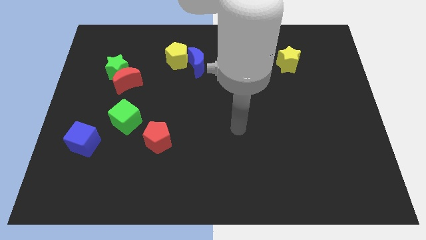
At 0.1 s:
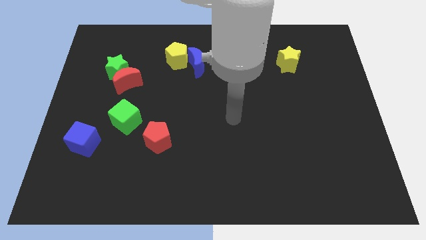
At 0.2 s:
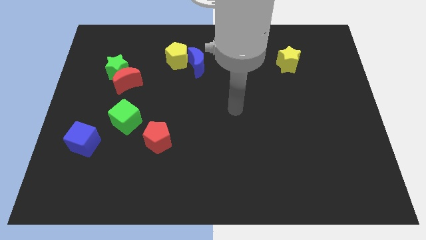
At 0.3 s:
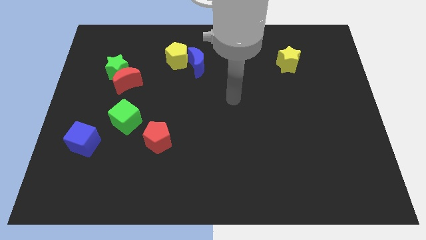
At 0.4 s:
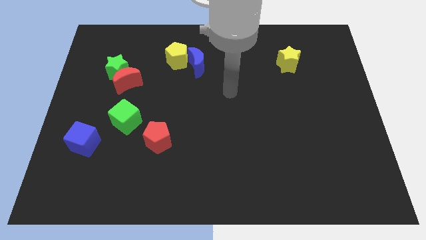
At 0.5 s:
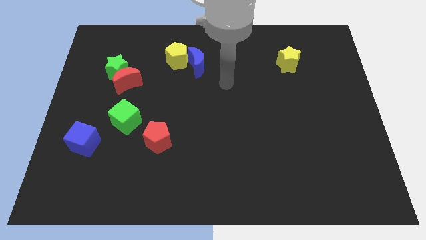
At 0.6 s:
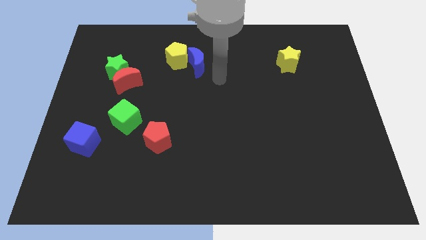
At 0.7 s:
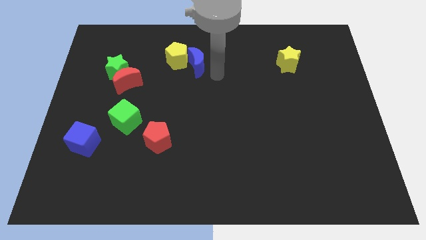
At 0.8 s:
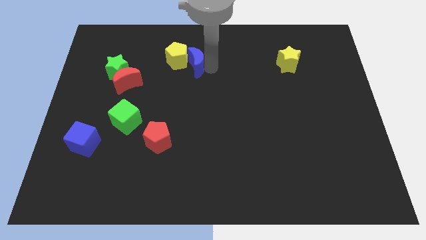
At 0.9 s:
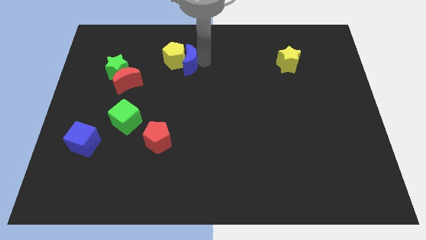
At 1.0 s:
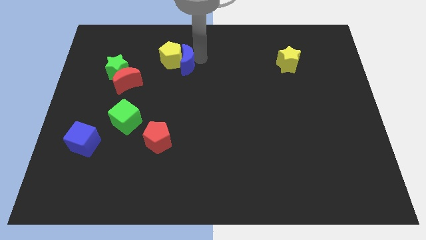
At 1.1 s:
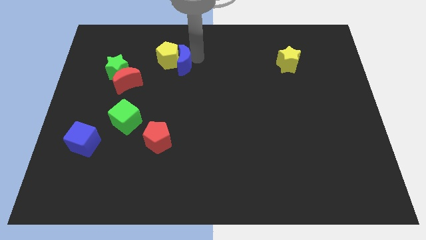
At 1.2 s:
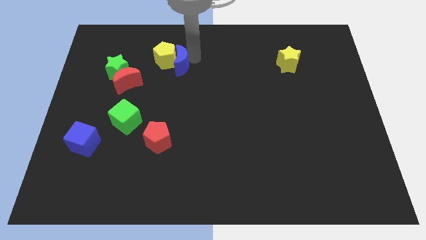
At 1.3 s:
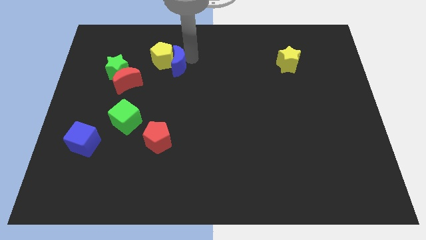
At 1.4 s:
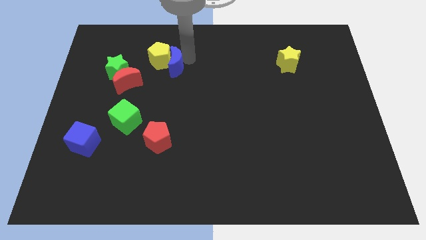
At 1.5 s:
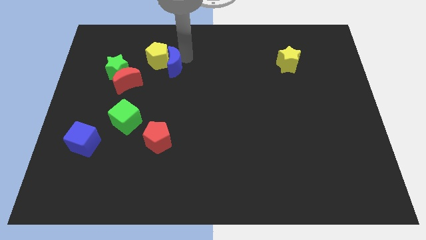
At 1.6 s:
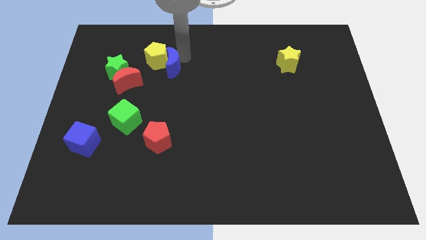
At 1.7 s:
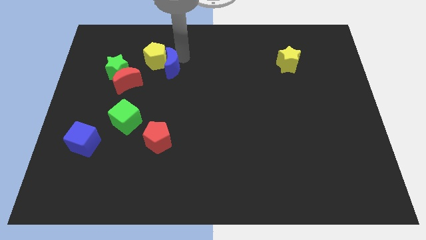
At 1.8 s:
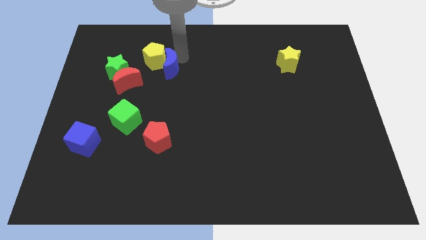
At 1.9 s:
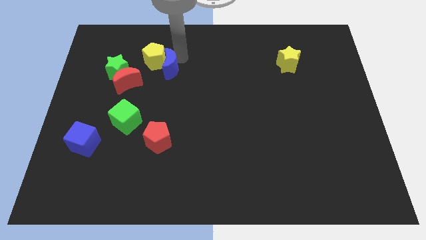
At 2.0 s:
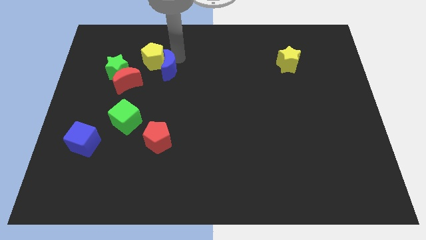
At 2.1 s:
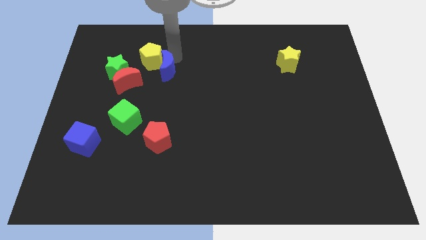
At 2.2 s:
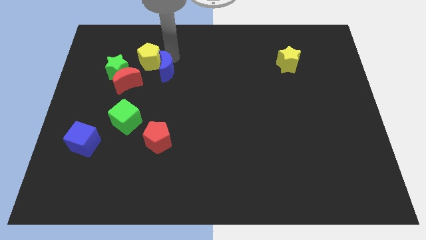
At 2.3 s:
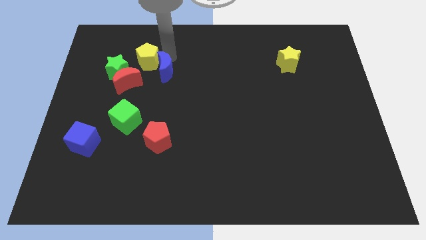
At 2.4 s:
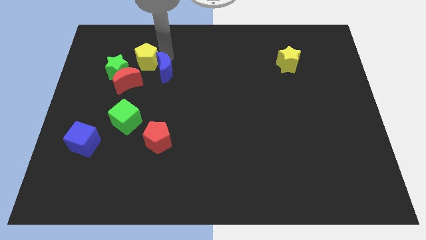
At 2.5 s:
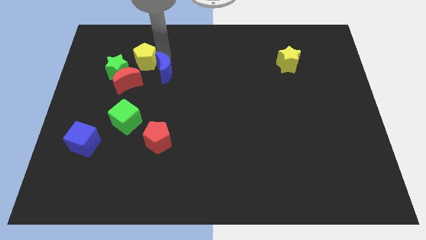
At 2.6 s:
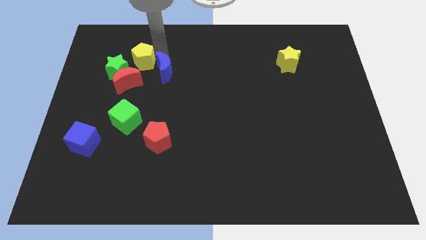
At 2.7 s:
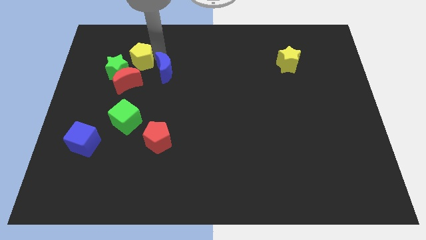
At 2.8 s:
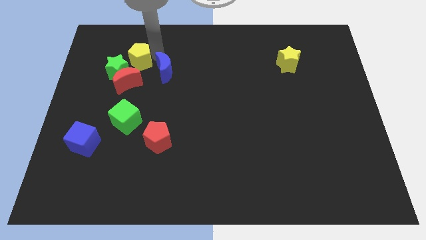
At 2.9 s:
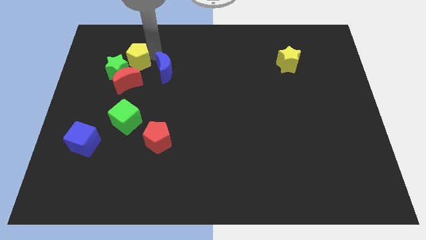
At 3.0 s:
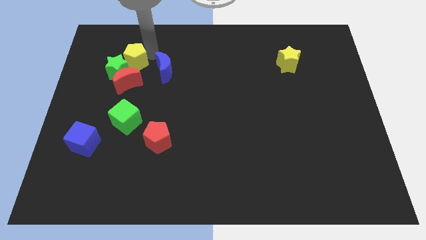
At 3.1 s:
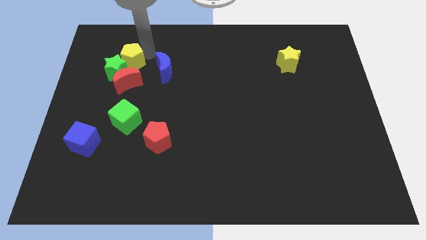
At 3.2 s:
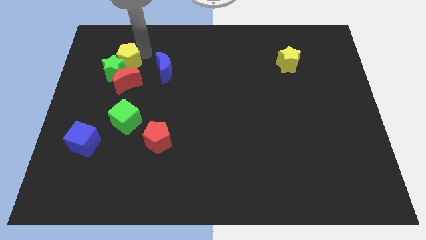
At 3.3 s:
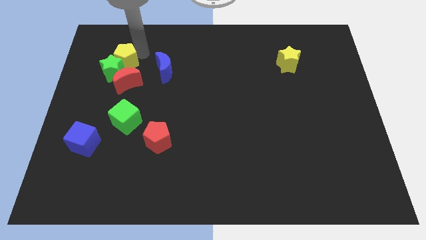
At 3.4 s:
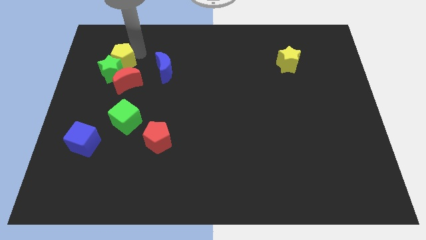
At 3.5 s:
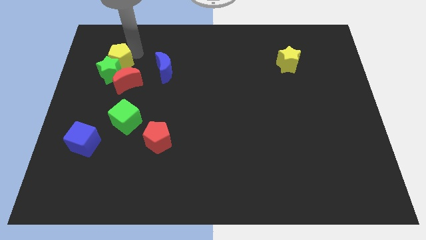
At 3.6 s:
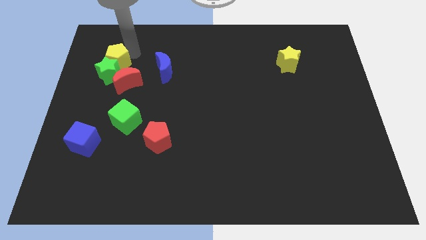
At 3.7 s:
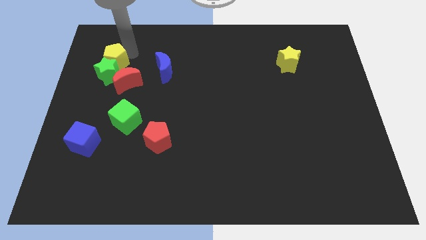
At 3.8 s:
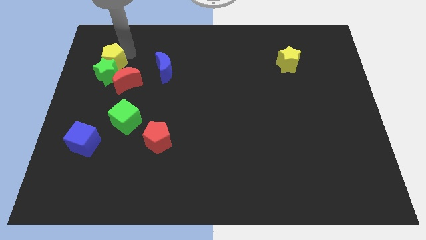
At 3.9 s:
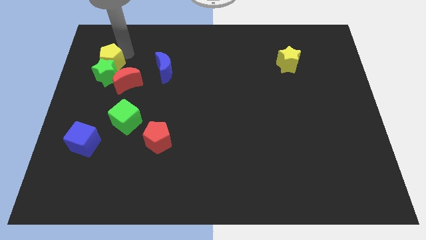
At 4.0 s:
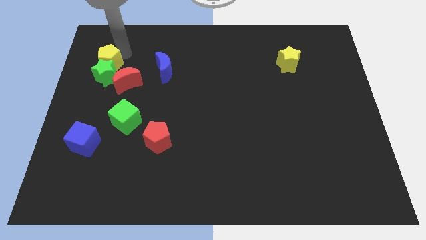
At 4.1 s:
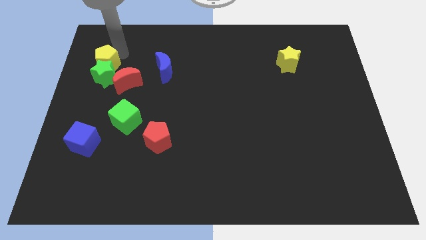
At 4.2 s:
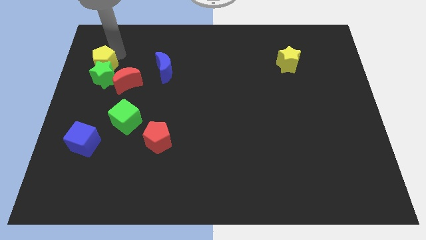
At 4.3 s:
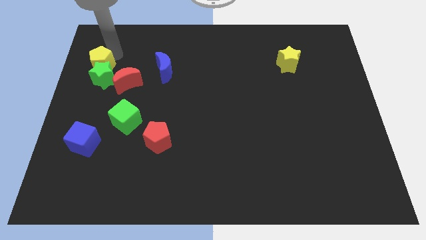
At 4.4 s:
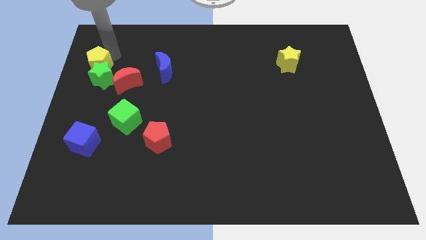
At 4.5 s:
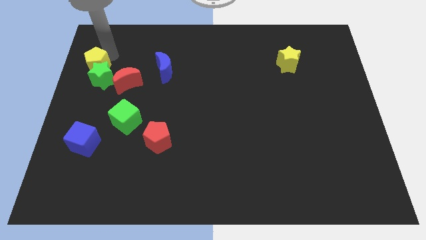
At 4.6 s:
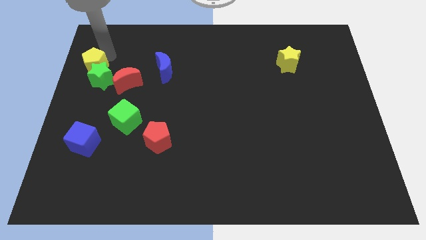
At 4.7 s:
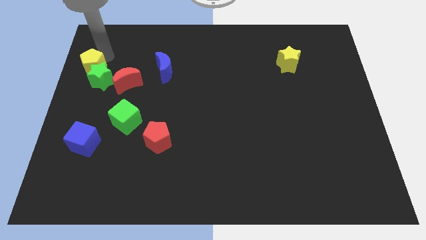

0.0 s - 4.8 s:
push the yellow pentagon to the center left

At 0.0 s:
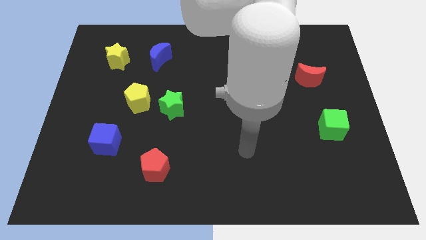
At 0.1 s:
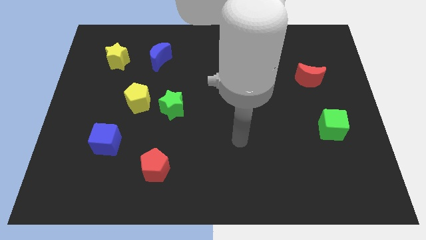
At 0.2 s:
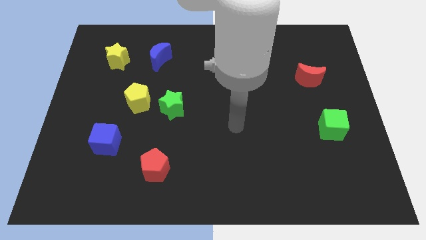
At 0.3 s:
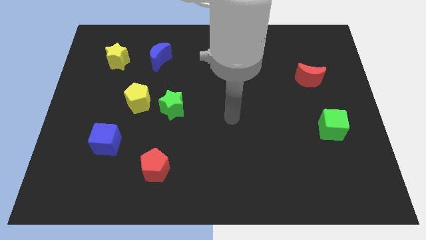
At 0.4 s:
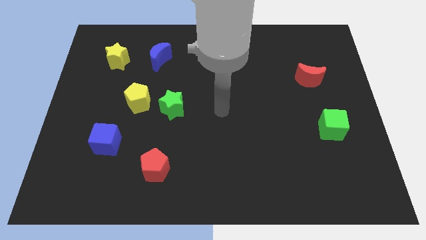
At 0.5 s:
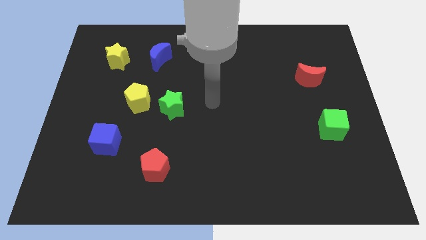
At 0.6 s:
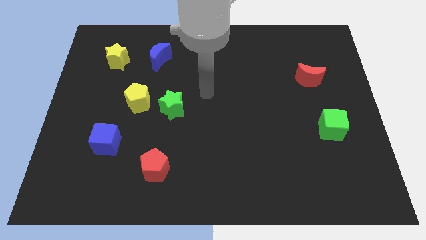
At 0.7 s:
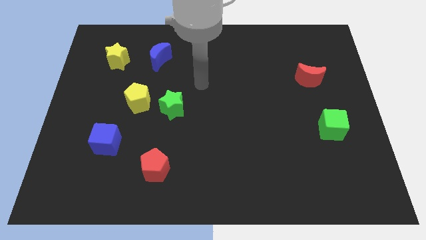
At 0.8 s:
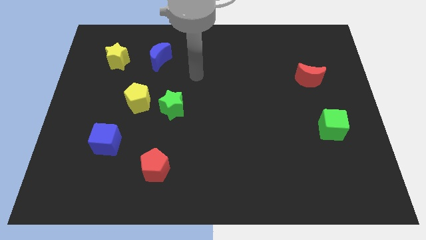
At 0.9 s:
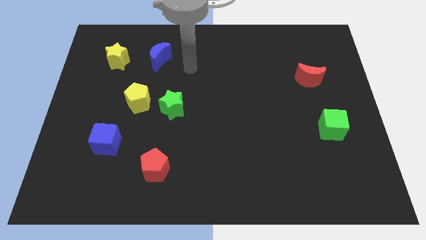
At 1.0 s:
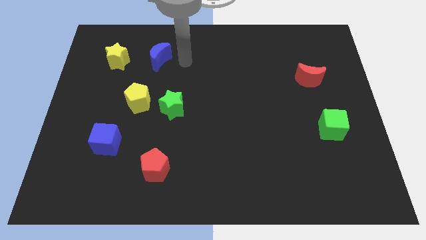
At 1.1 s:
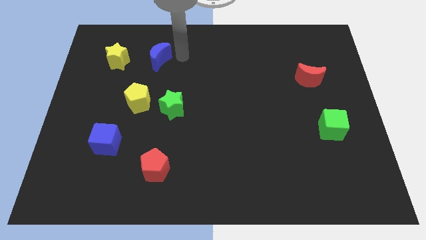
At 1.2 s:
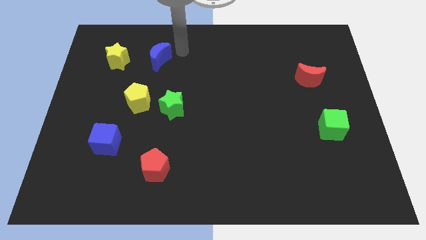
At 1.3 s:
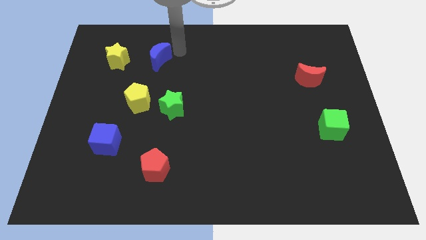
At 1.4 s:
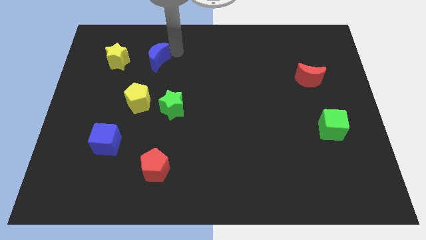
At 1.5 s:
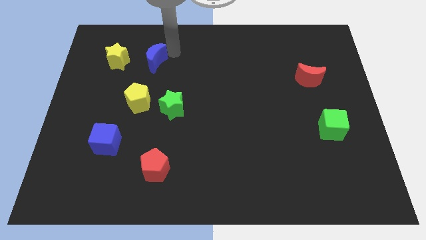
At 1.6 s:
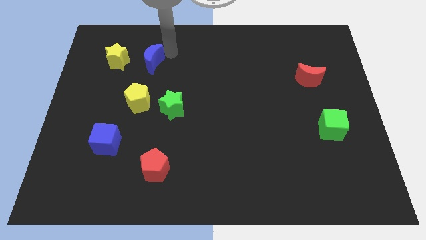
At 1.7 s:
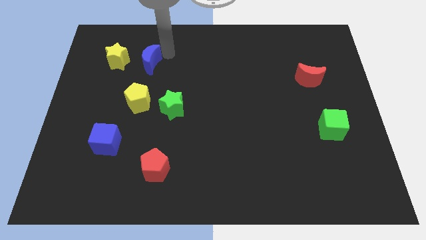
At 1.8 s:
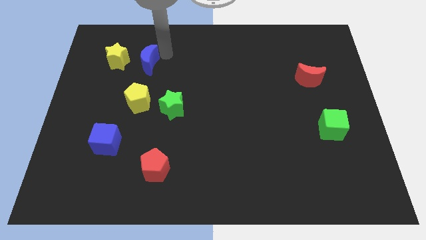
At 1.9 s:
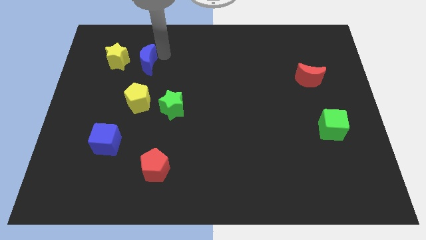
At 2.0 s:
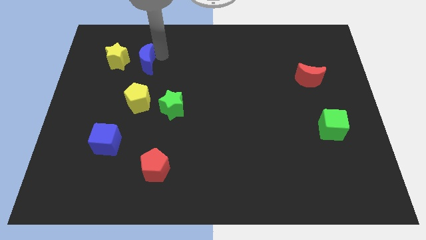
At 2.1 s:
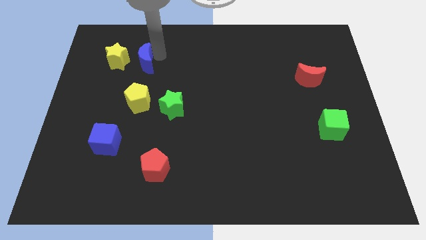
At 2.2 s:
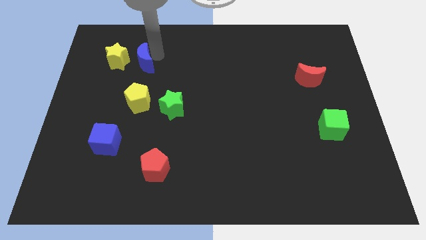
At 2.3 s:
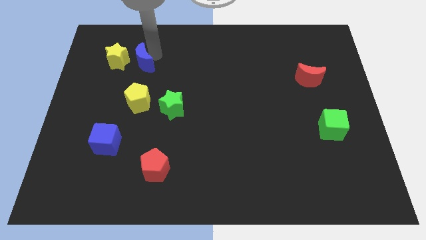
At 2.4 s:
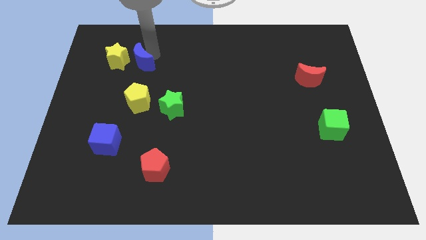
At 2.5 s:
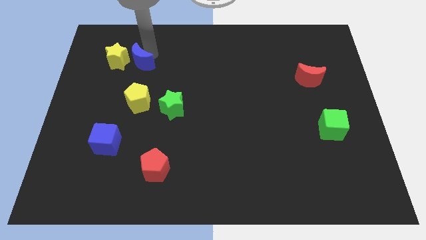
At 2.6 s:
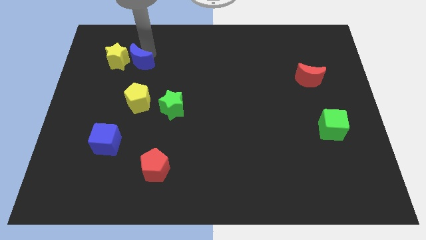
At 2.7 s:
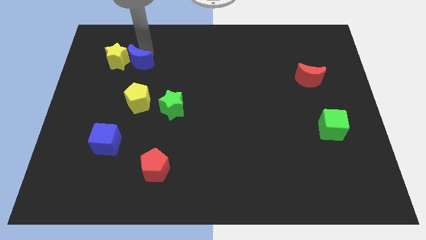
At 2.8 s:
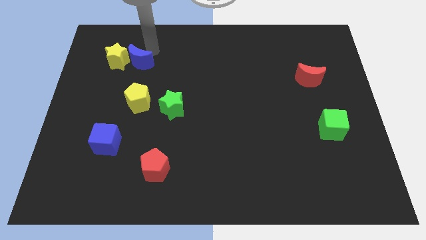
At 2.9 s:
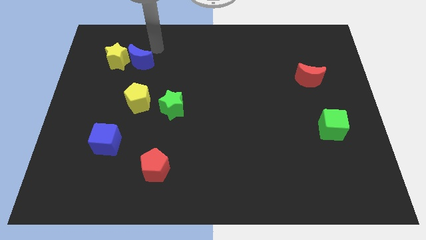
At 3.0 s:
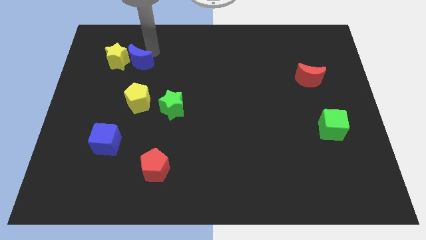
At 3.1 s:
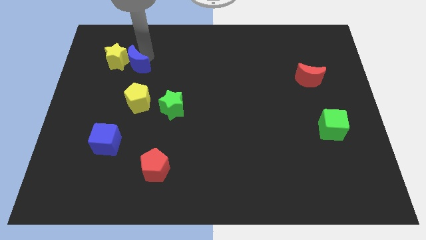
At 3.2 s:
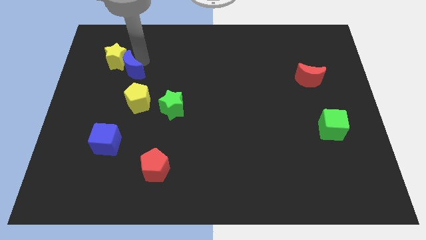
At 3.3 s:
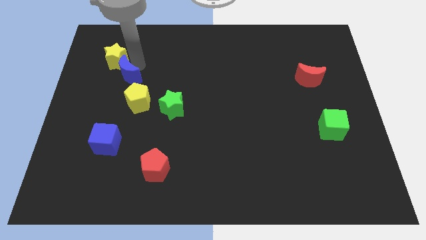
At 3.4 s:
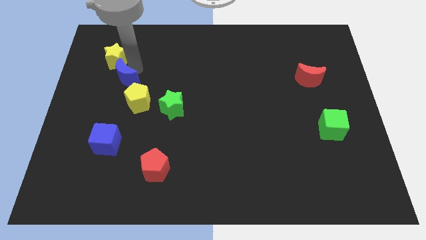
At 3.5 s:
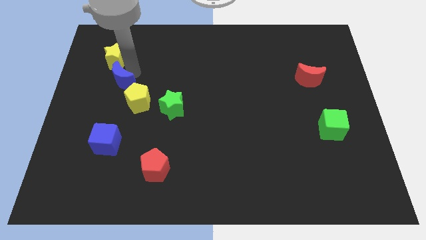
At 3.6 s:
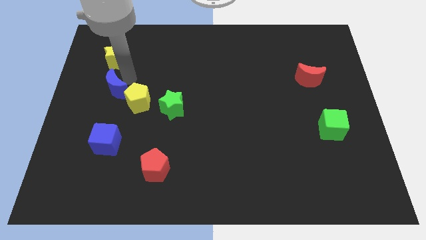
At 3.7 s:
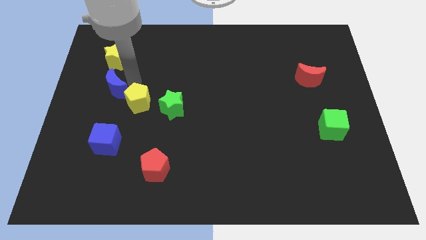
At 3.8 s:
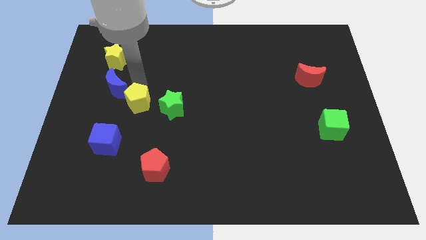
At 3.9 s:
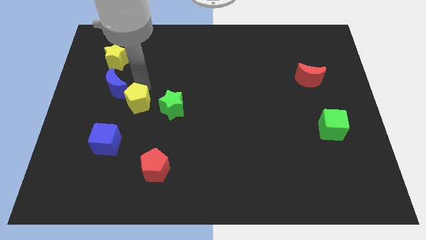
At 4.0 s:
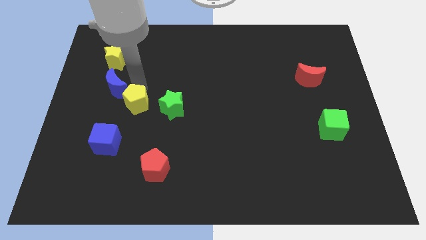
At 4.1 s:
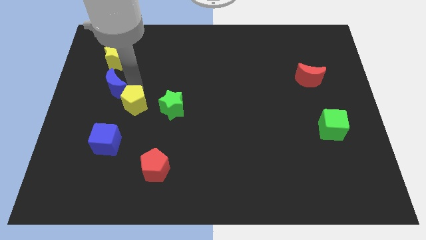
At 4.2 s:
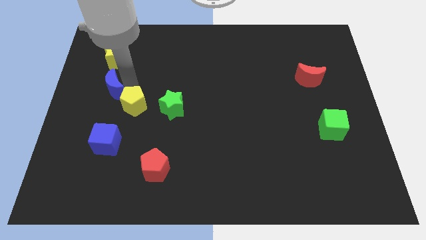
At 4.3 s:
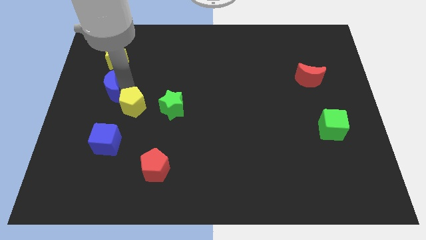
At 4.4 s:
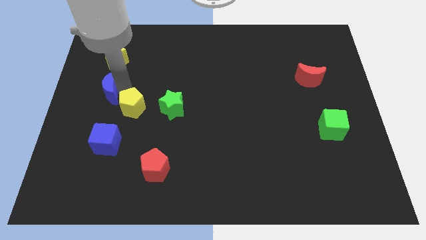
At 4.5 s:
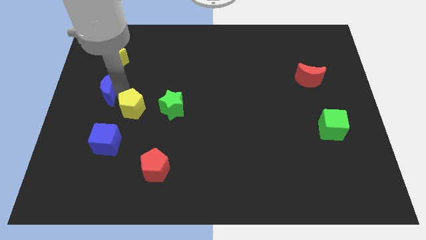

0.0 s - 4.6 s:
push the blue moon to the left side of the board
